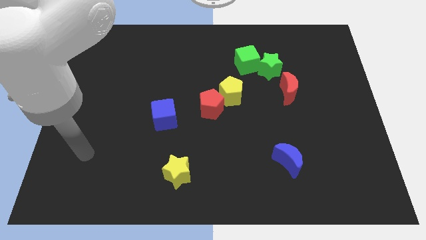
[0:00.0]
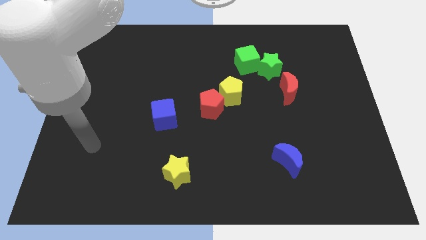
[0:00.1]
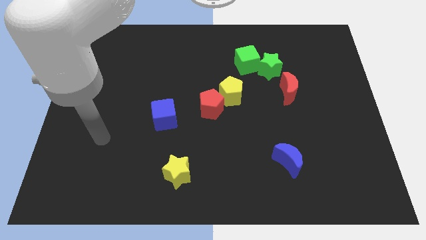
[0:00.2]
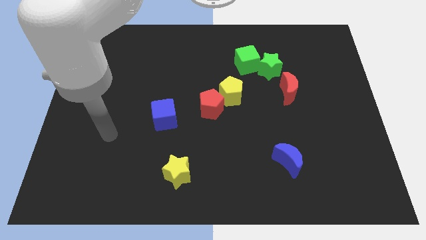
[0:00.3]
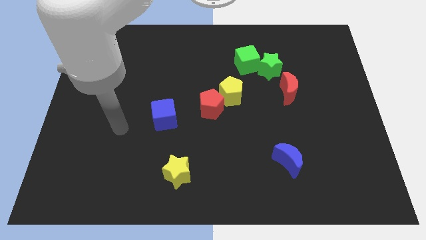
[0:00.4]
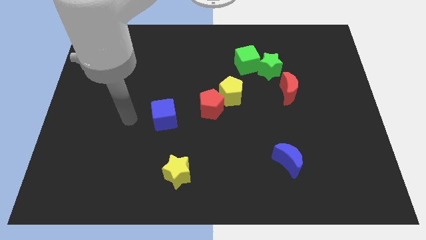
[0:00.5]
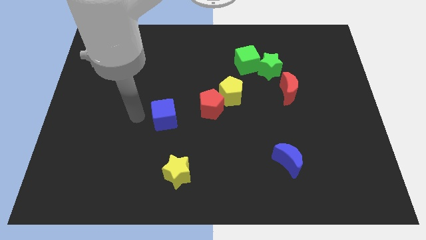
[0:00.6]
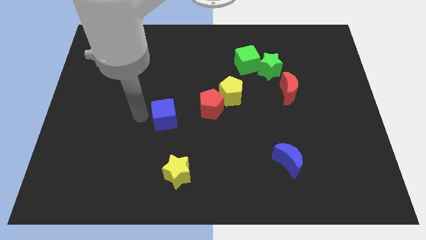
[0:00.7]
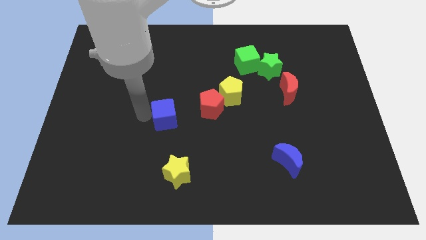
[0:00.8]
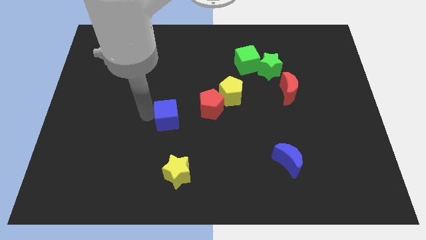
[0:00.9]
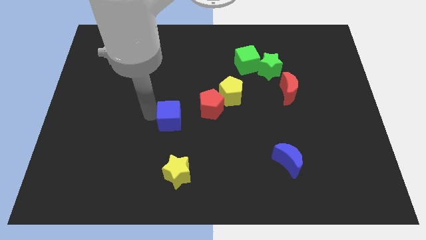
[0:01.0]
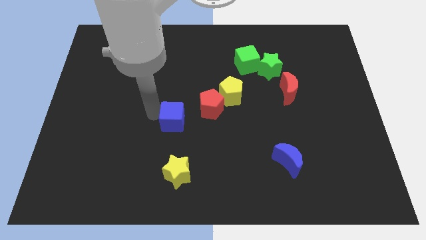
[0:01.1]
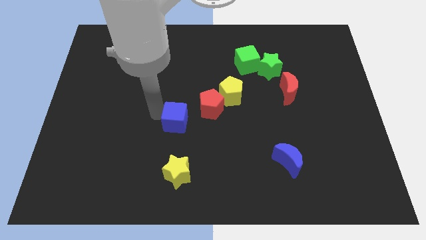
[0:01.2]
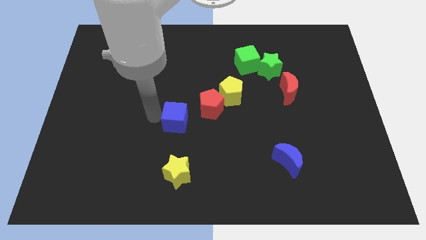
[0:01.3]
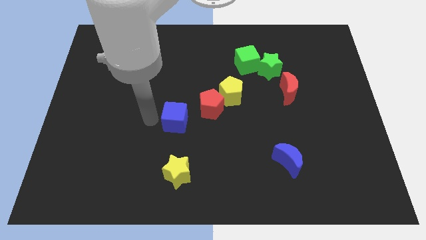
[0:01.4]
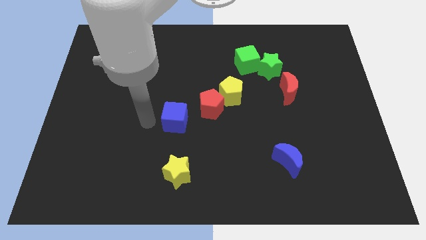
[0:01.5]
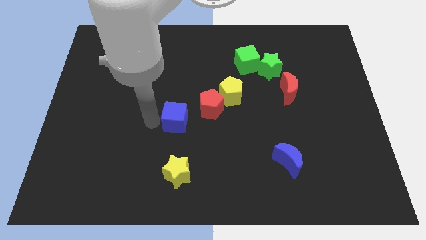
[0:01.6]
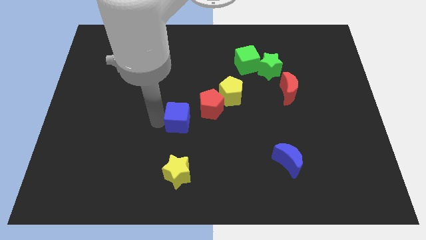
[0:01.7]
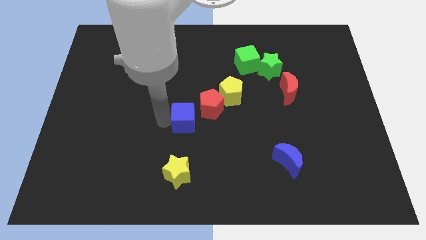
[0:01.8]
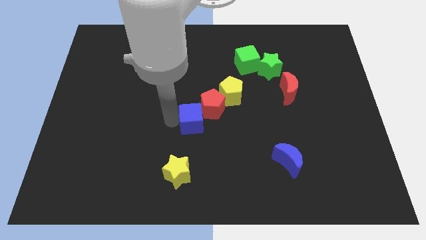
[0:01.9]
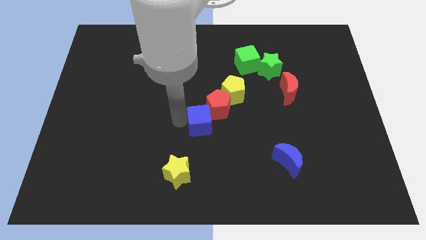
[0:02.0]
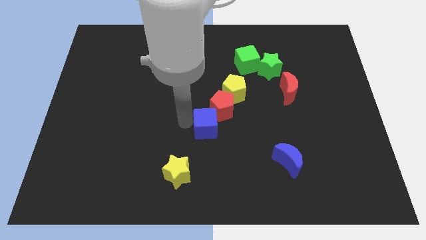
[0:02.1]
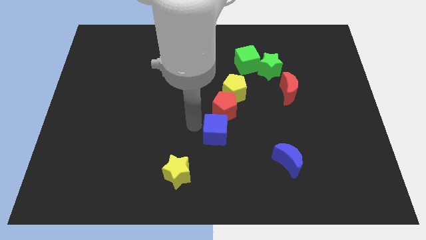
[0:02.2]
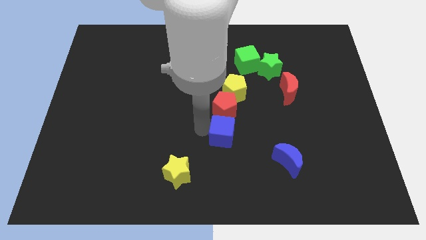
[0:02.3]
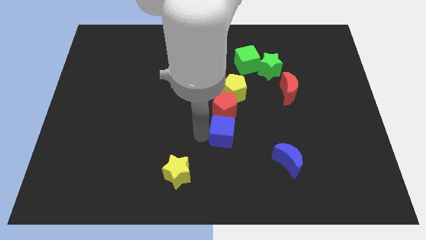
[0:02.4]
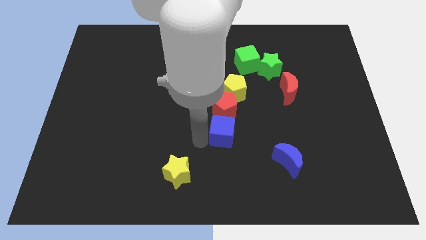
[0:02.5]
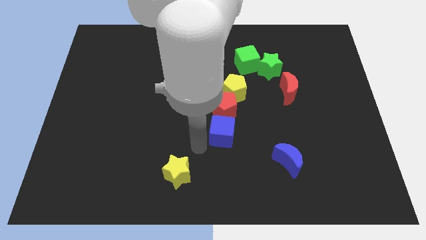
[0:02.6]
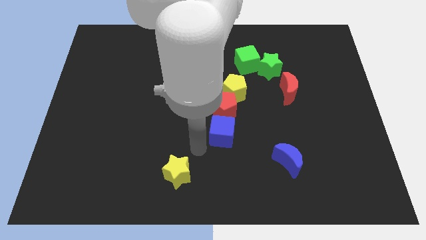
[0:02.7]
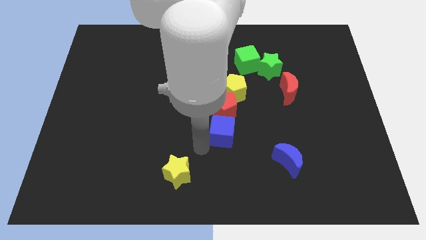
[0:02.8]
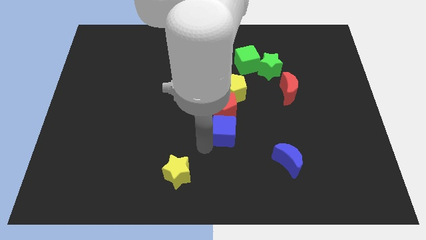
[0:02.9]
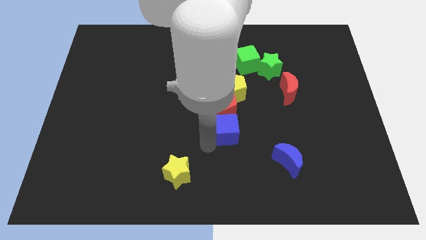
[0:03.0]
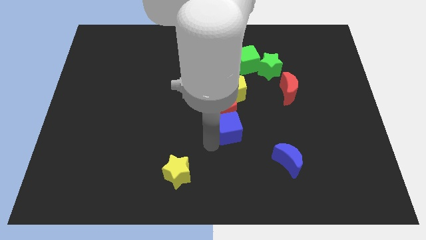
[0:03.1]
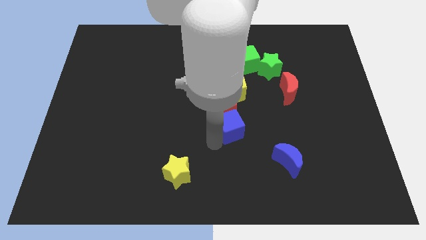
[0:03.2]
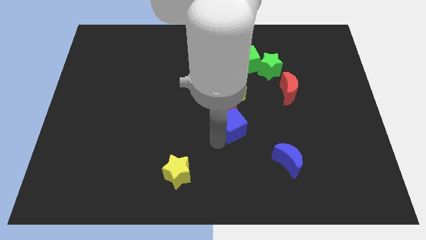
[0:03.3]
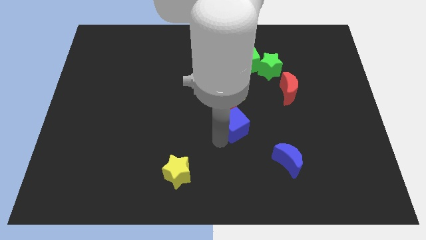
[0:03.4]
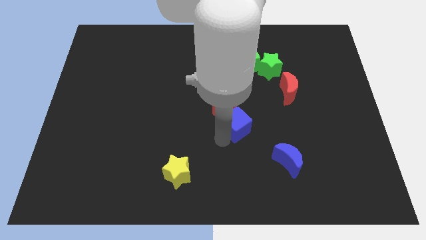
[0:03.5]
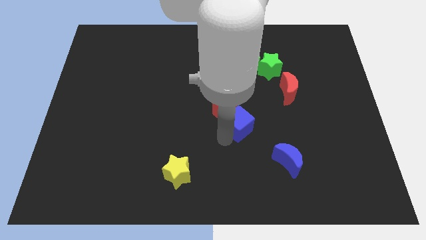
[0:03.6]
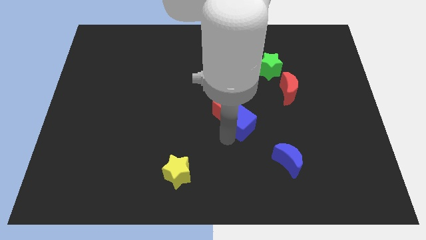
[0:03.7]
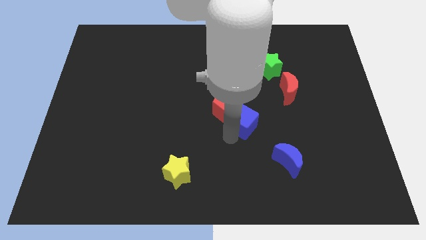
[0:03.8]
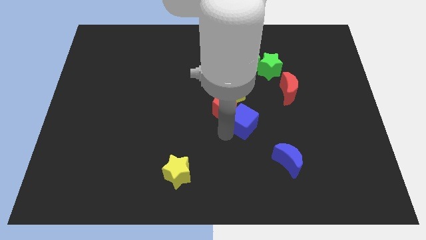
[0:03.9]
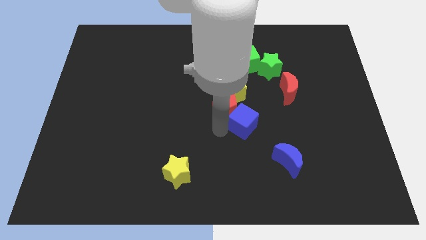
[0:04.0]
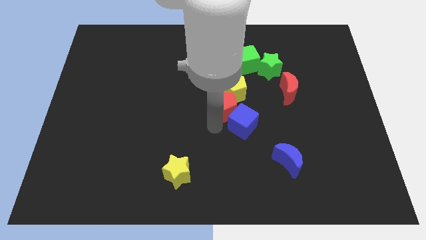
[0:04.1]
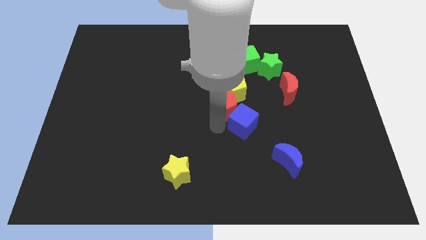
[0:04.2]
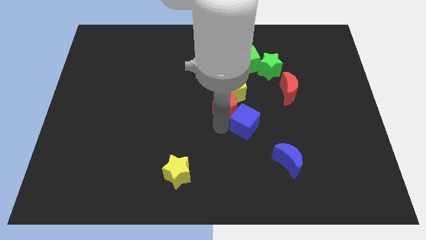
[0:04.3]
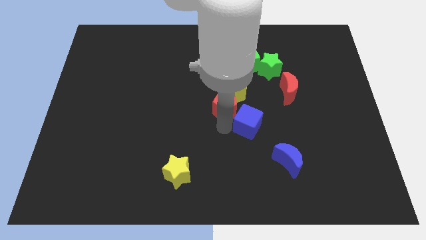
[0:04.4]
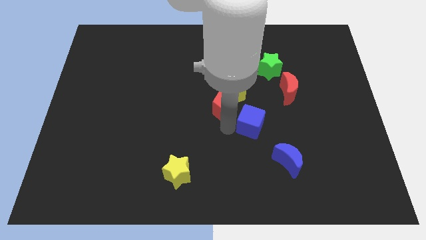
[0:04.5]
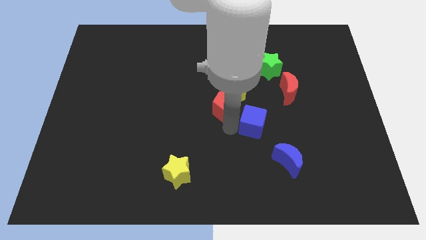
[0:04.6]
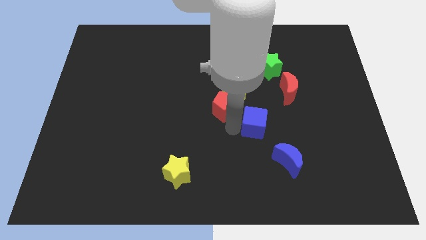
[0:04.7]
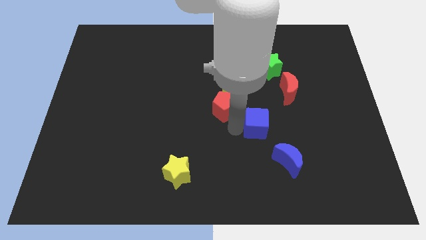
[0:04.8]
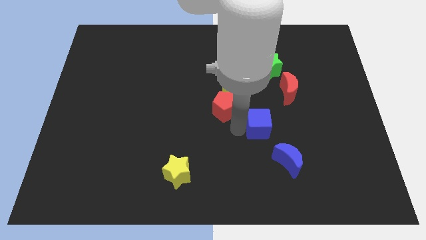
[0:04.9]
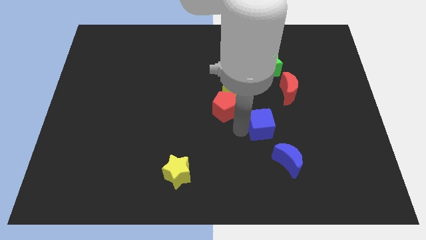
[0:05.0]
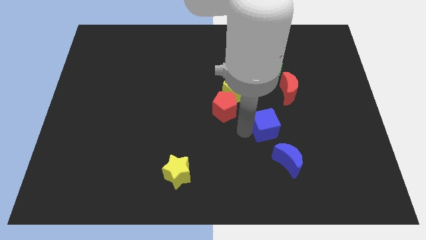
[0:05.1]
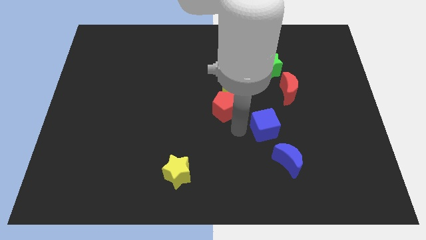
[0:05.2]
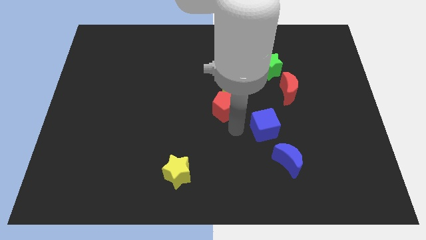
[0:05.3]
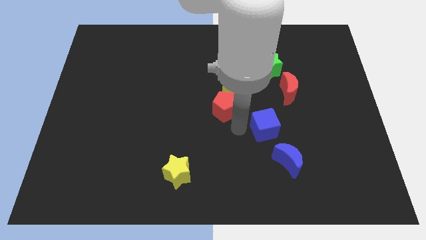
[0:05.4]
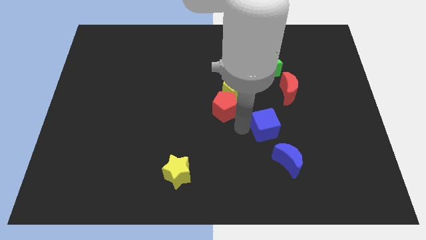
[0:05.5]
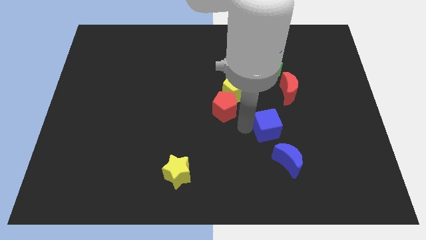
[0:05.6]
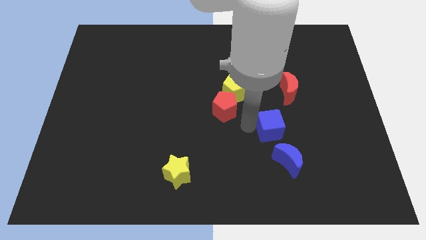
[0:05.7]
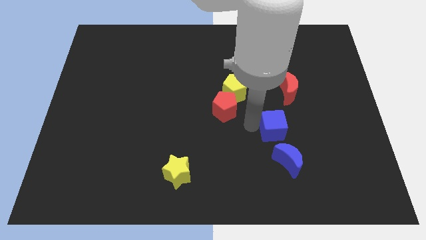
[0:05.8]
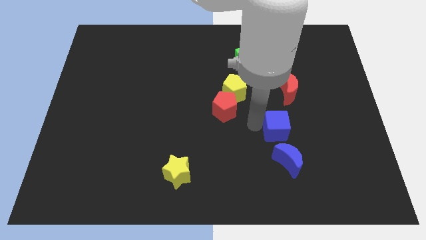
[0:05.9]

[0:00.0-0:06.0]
slide the blue cube to the bottom of the red moon
